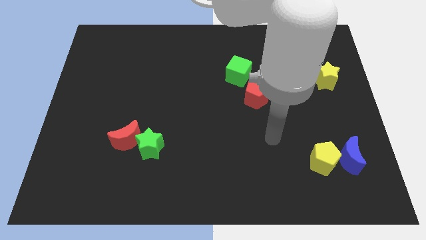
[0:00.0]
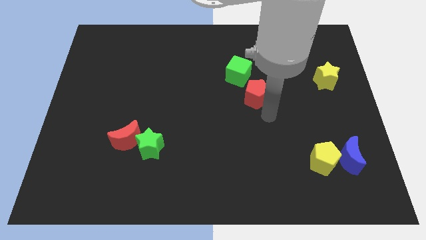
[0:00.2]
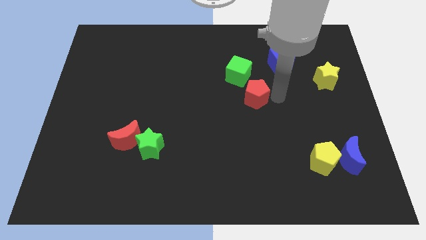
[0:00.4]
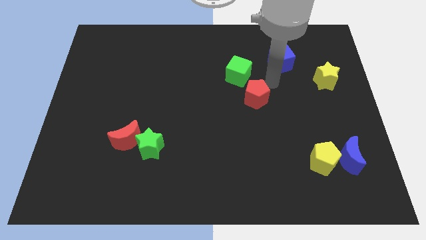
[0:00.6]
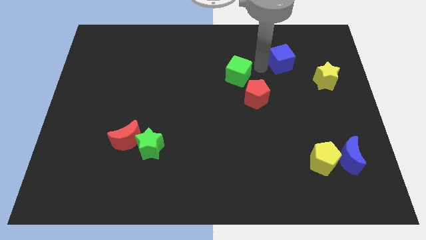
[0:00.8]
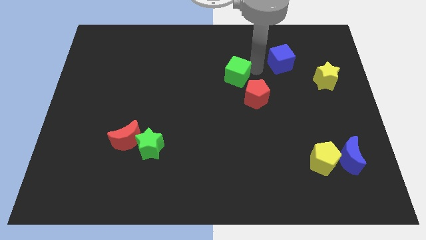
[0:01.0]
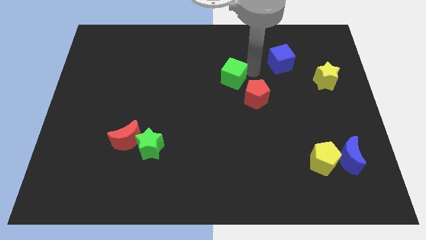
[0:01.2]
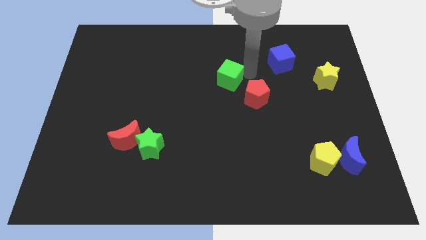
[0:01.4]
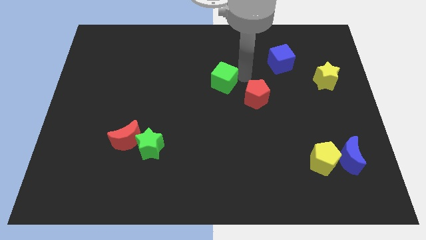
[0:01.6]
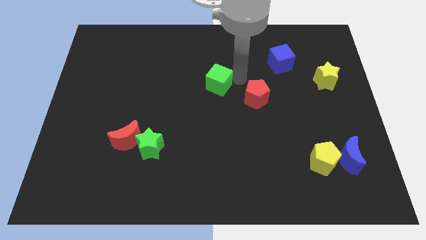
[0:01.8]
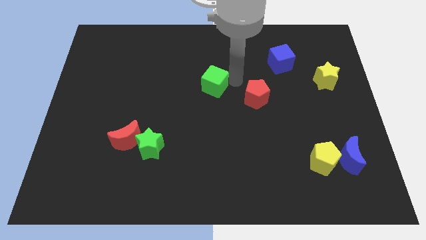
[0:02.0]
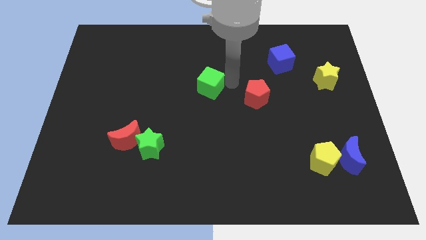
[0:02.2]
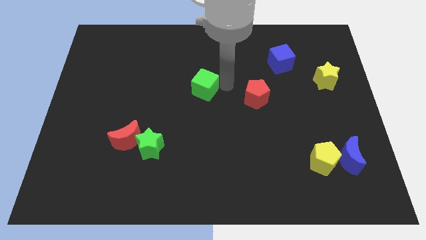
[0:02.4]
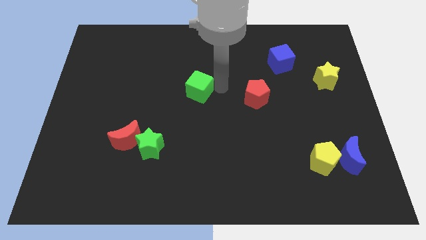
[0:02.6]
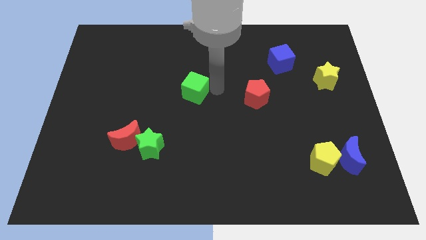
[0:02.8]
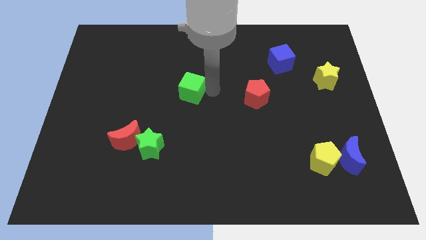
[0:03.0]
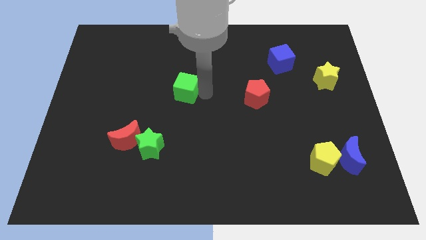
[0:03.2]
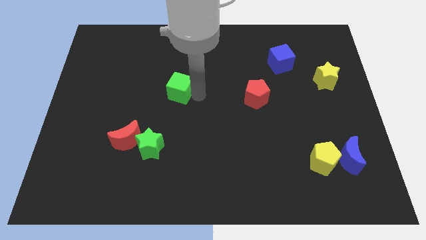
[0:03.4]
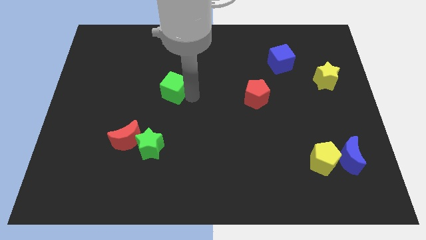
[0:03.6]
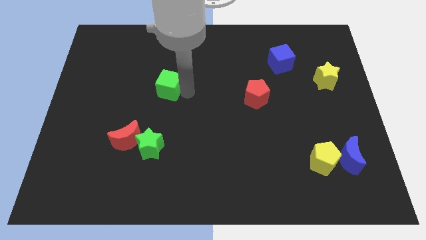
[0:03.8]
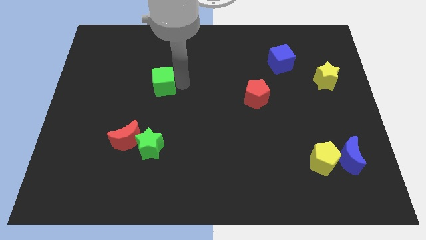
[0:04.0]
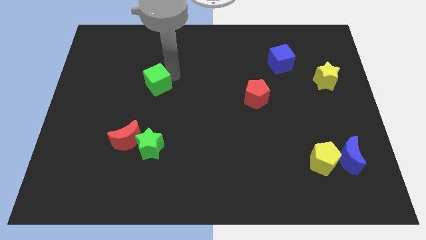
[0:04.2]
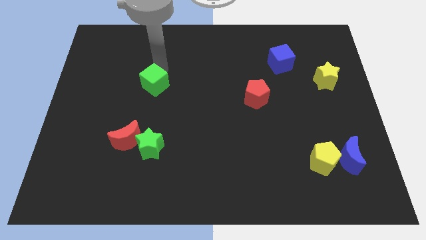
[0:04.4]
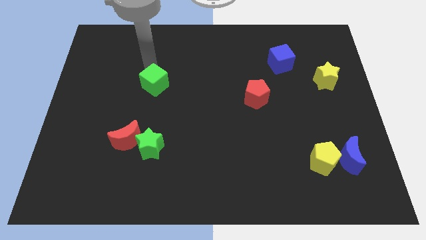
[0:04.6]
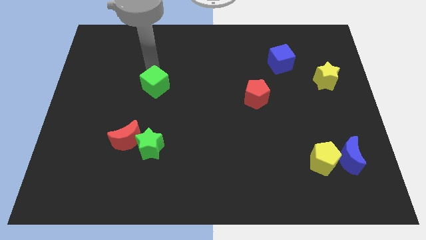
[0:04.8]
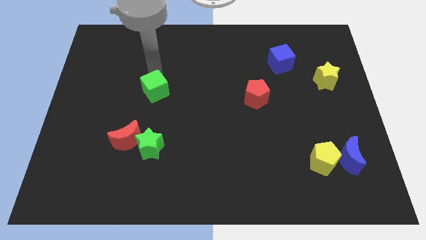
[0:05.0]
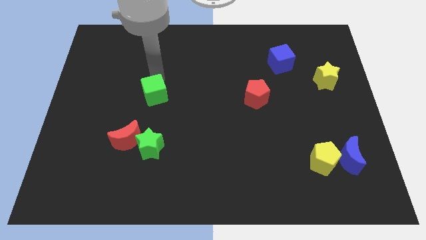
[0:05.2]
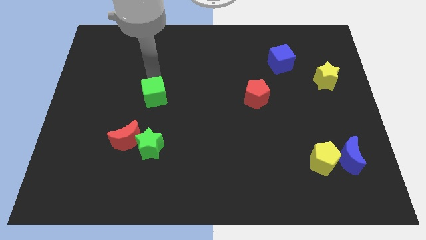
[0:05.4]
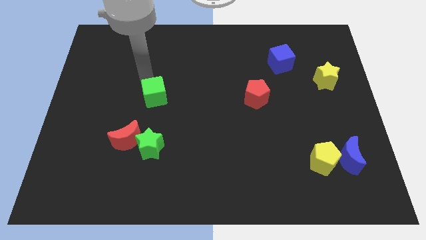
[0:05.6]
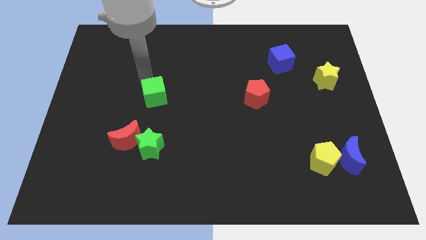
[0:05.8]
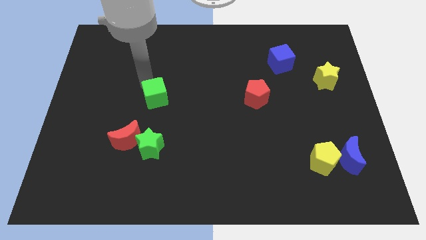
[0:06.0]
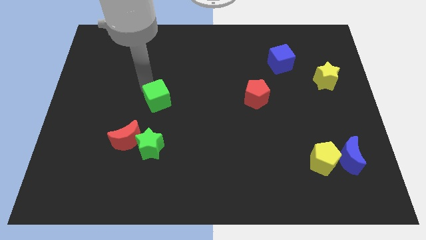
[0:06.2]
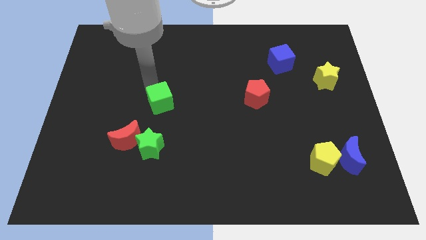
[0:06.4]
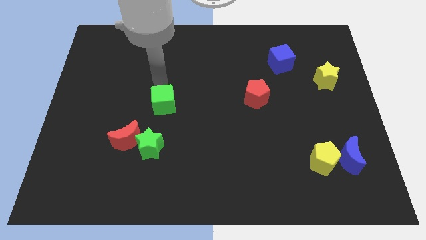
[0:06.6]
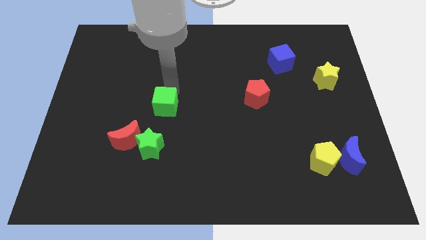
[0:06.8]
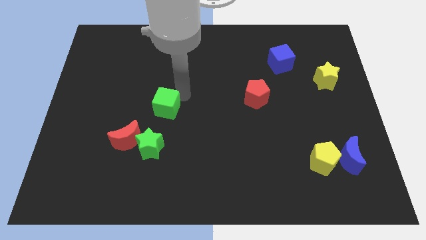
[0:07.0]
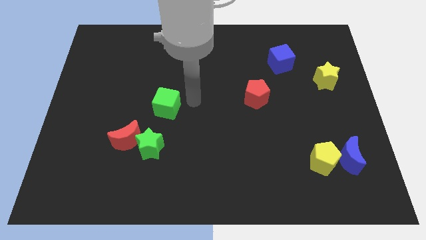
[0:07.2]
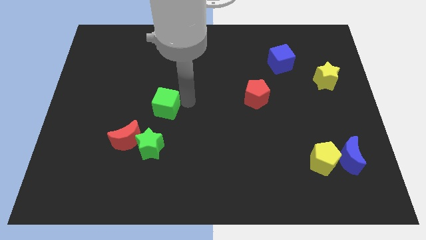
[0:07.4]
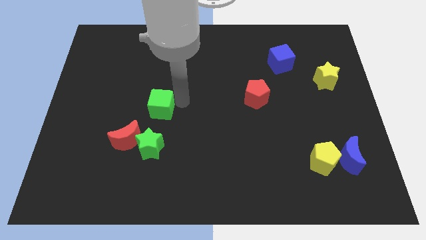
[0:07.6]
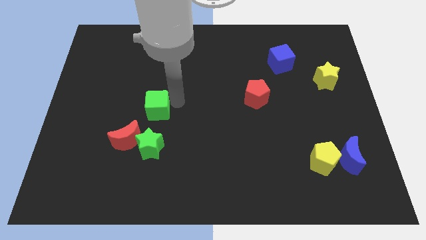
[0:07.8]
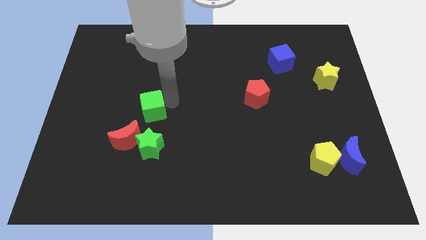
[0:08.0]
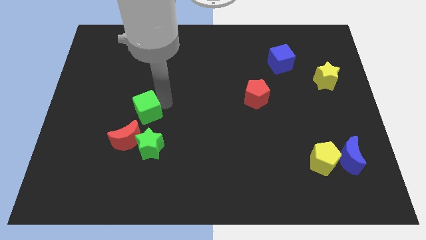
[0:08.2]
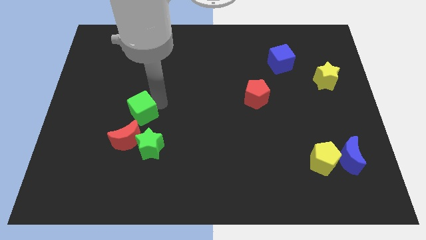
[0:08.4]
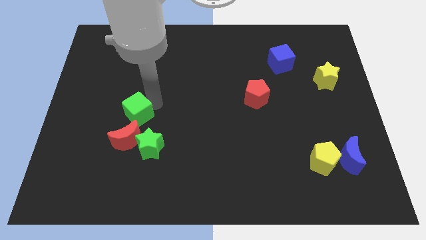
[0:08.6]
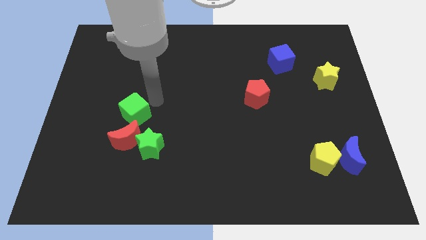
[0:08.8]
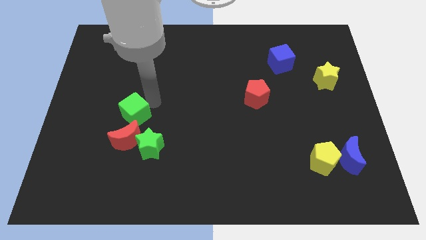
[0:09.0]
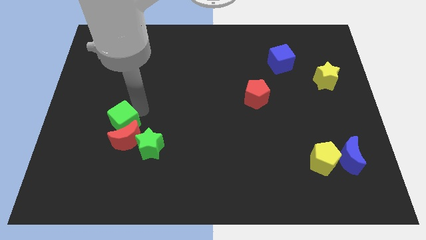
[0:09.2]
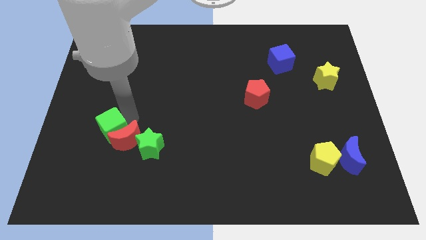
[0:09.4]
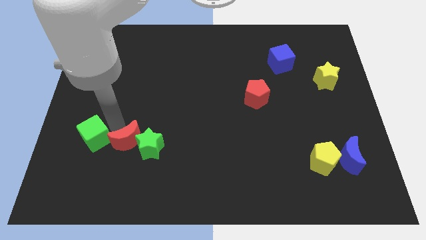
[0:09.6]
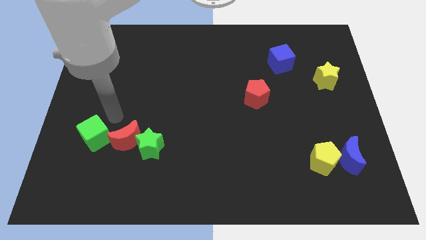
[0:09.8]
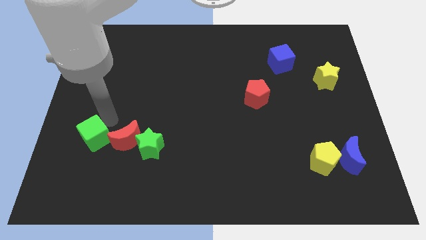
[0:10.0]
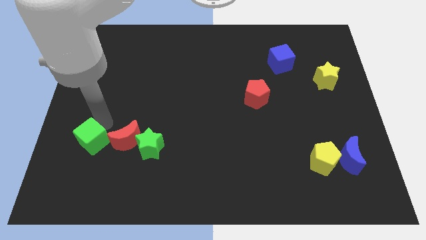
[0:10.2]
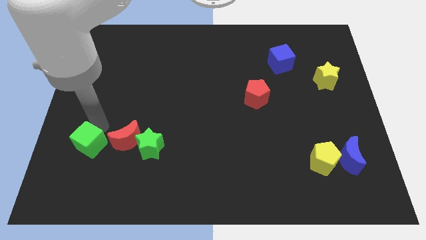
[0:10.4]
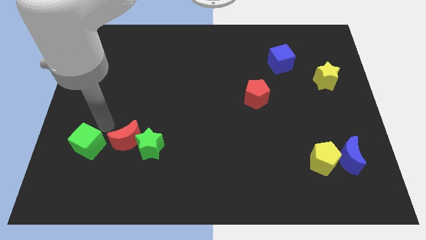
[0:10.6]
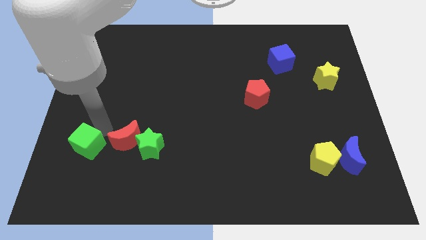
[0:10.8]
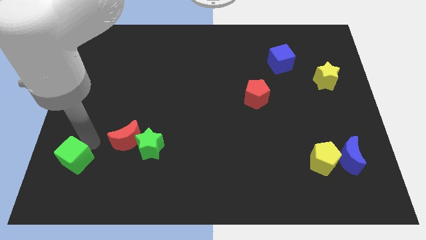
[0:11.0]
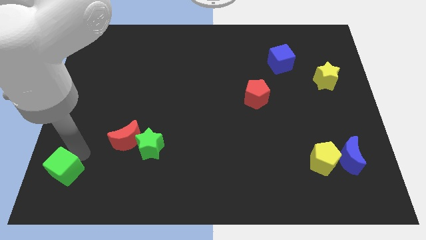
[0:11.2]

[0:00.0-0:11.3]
put the green cube to the bottom left corner

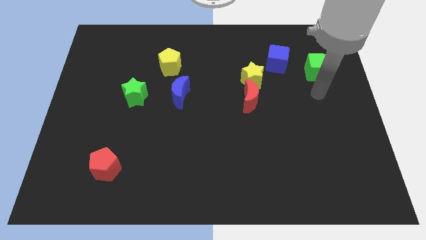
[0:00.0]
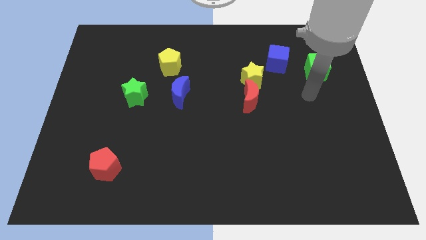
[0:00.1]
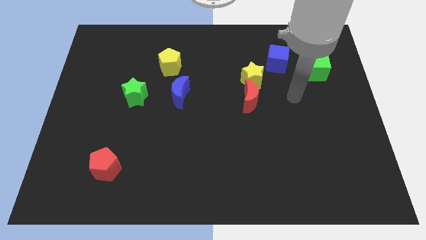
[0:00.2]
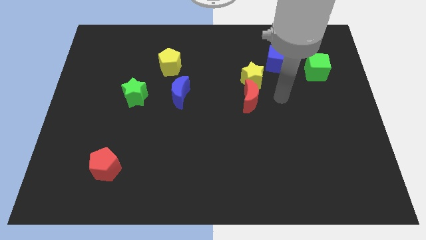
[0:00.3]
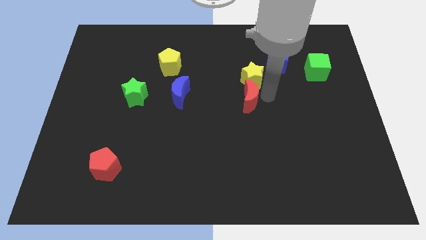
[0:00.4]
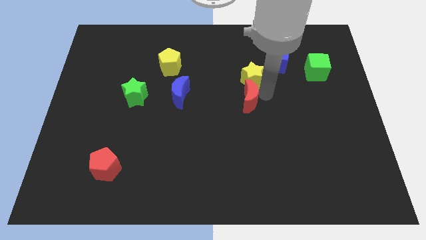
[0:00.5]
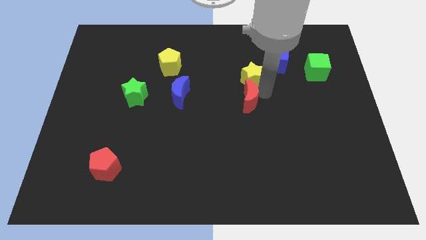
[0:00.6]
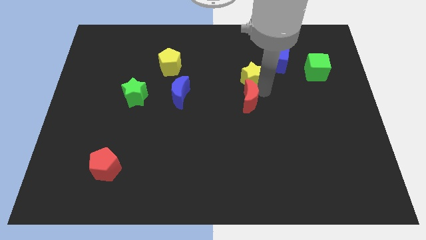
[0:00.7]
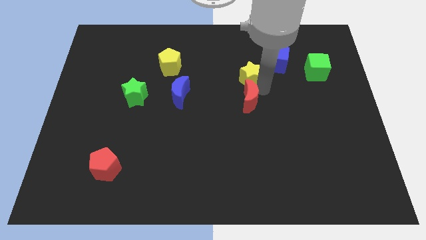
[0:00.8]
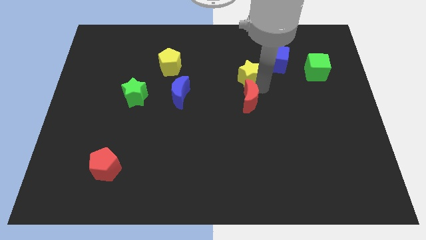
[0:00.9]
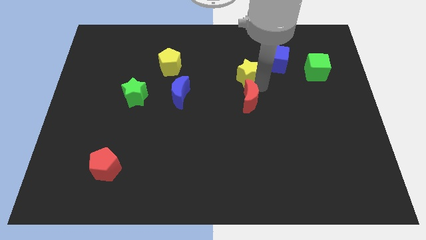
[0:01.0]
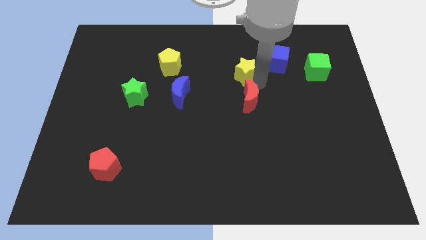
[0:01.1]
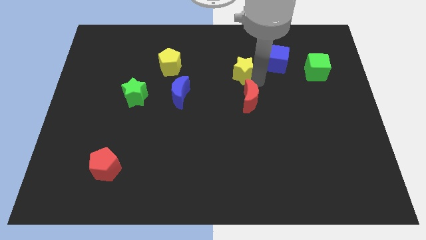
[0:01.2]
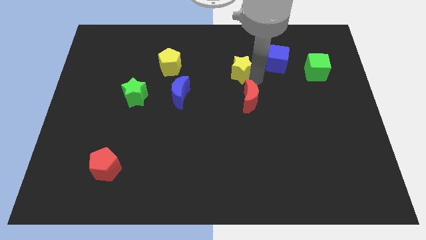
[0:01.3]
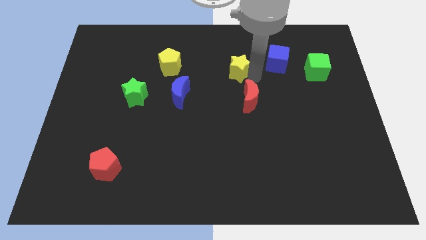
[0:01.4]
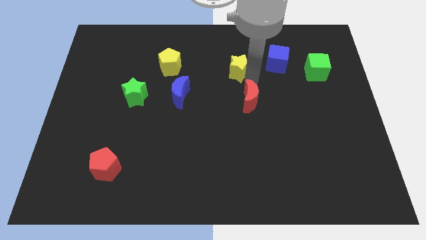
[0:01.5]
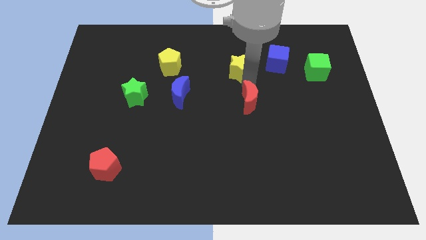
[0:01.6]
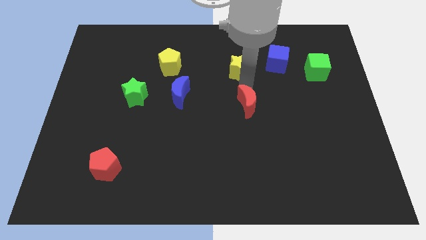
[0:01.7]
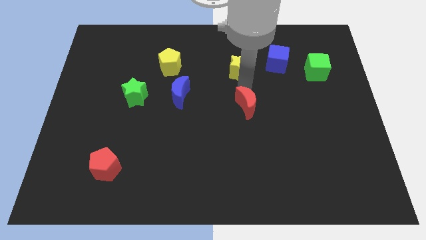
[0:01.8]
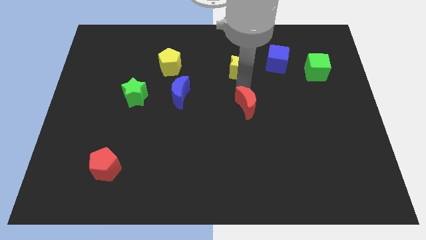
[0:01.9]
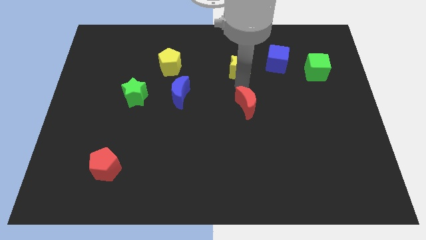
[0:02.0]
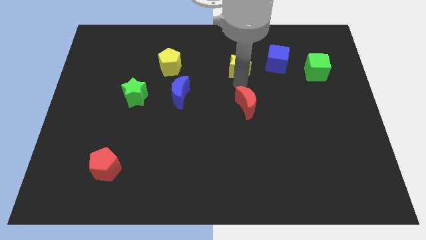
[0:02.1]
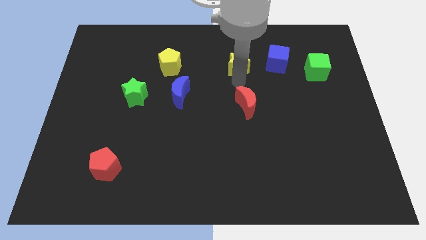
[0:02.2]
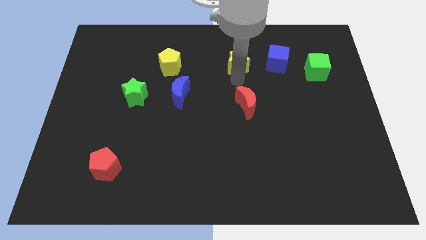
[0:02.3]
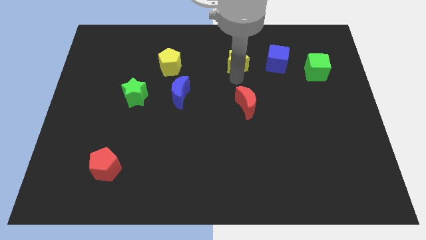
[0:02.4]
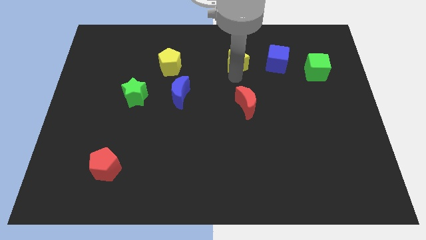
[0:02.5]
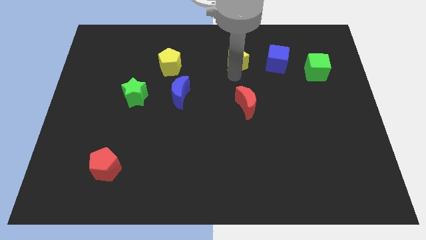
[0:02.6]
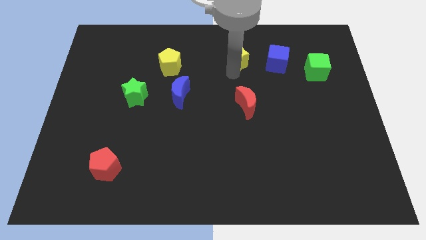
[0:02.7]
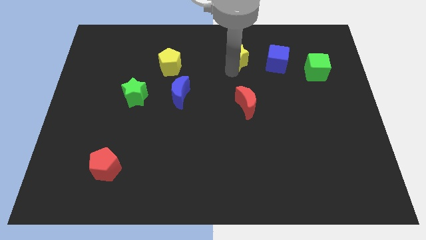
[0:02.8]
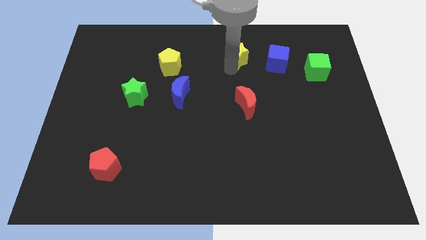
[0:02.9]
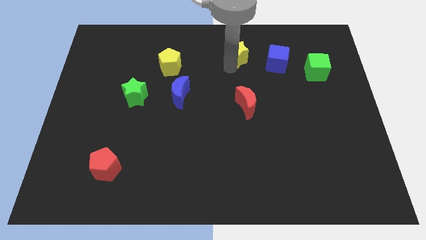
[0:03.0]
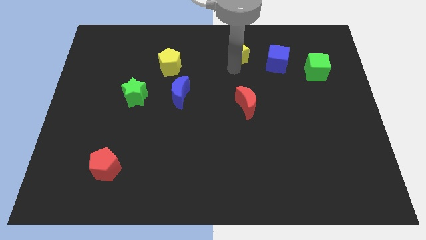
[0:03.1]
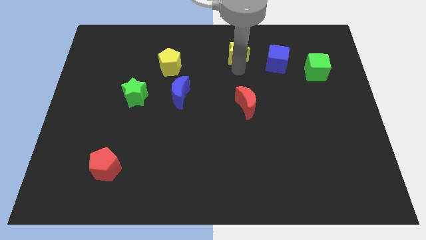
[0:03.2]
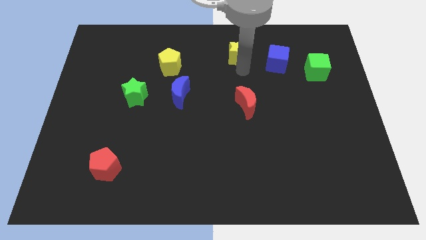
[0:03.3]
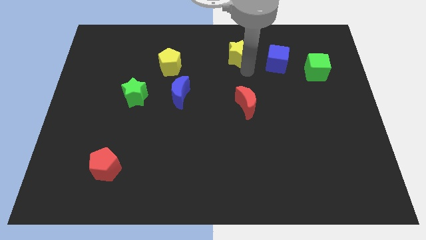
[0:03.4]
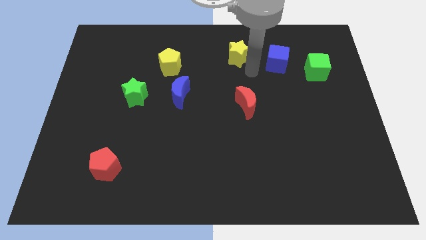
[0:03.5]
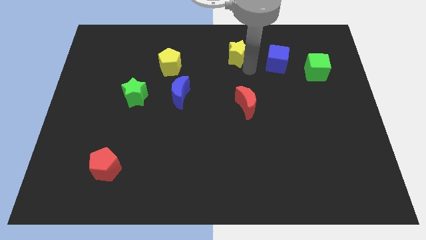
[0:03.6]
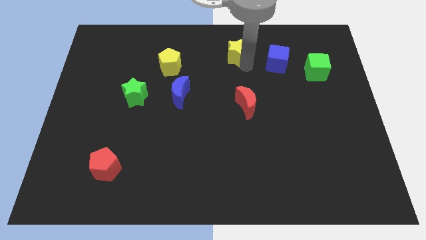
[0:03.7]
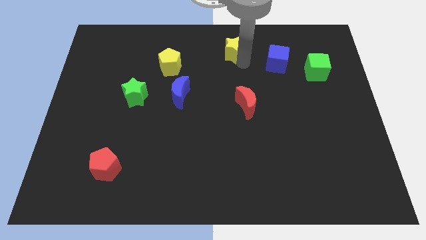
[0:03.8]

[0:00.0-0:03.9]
move the yellow star to the top
